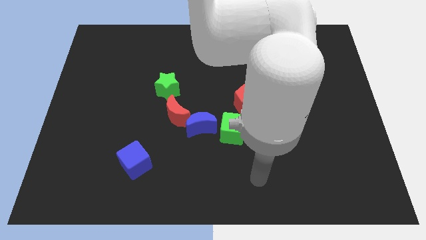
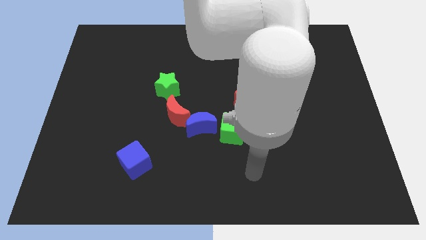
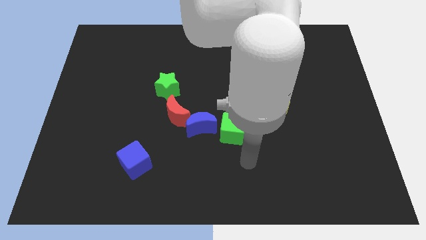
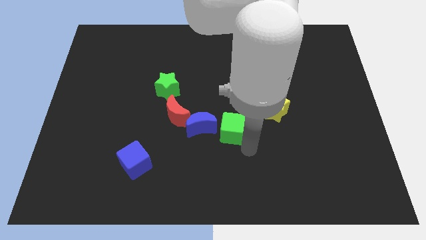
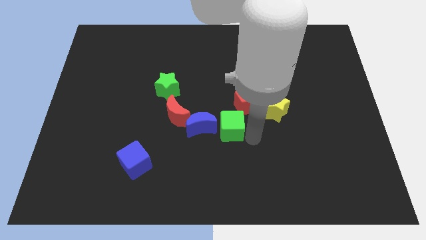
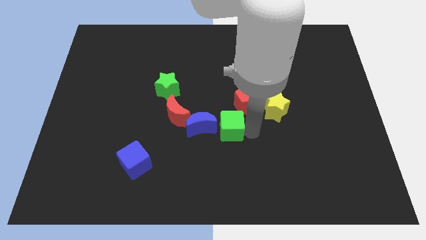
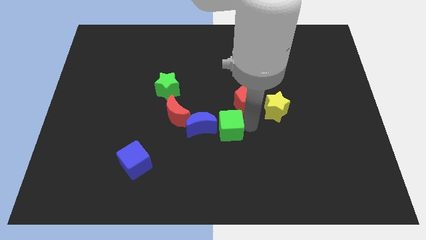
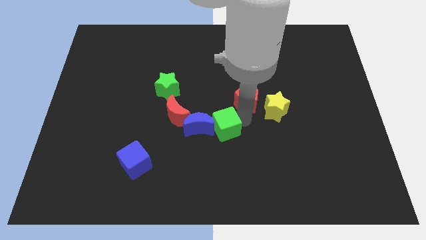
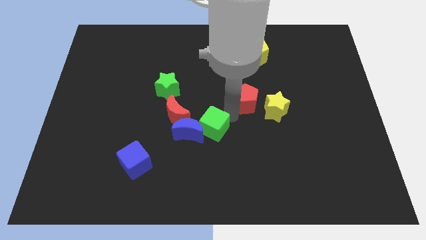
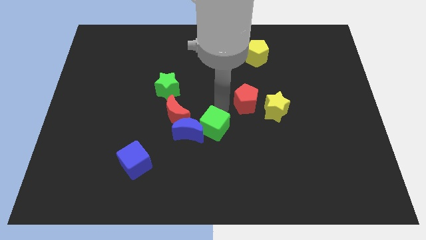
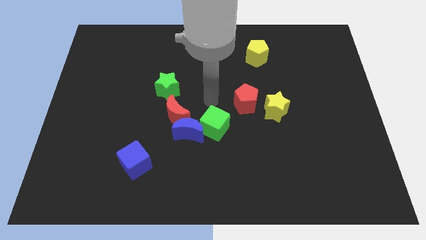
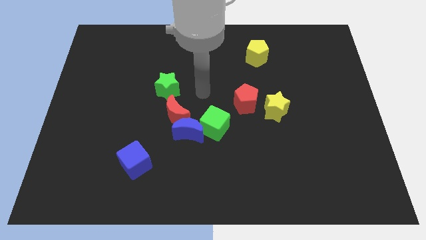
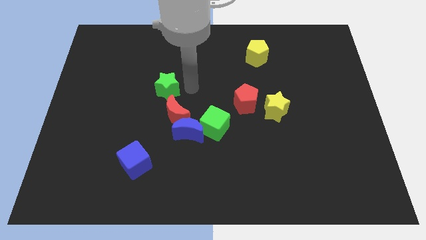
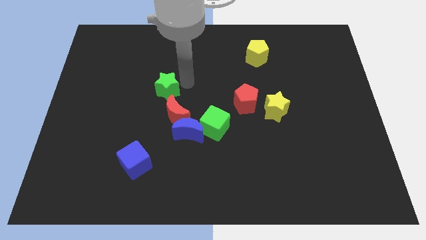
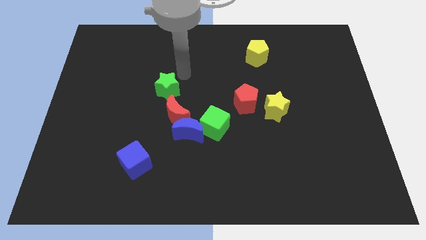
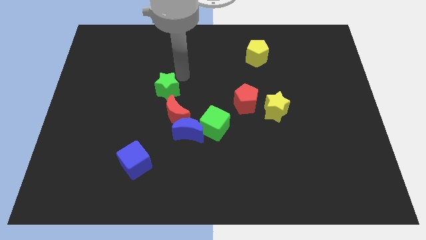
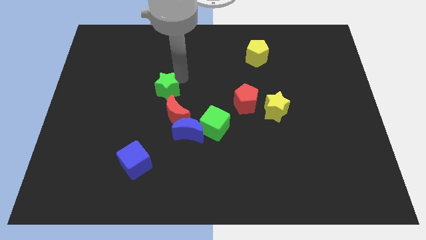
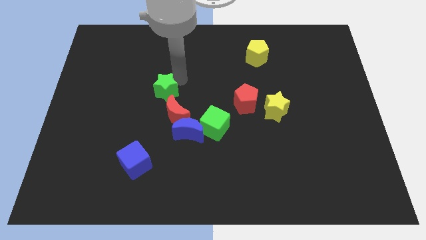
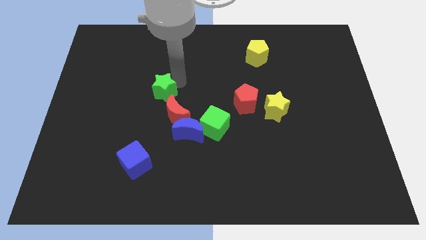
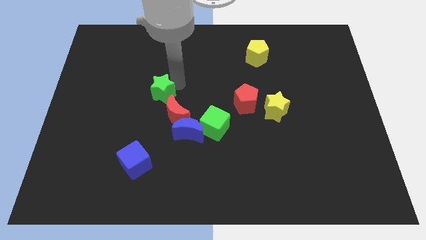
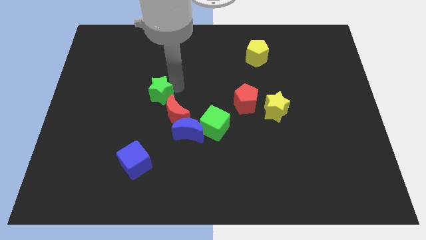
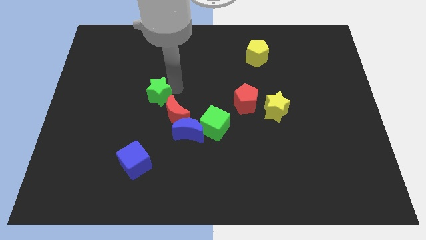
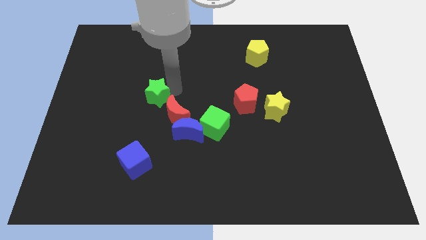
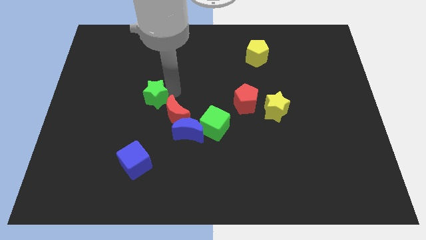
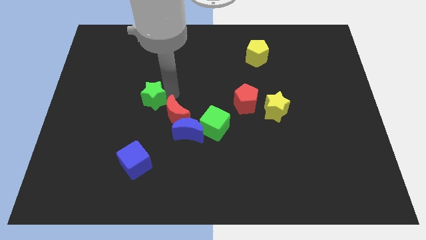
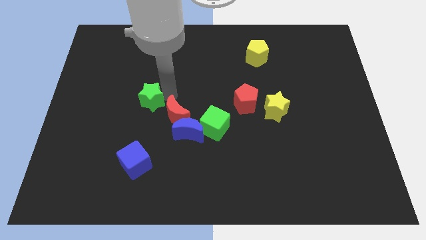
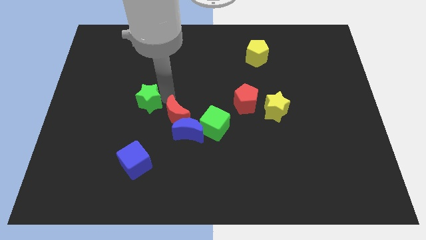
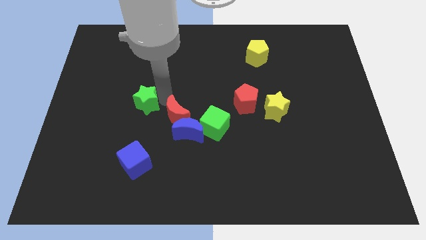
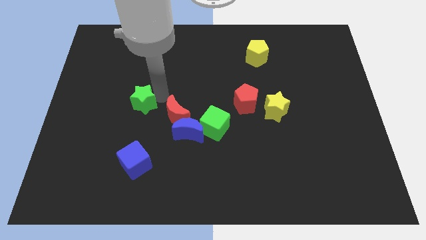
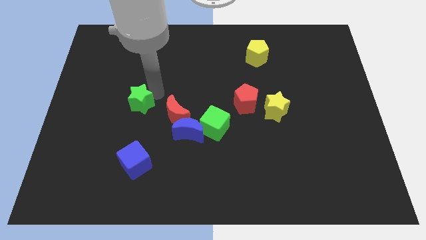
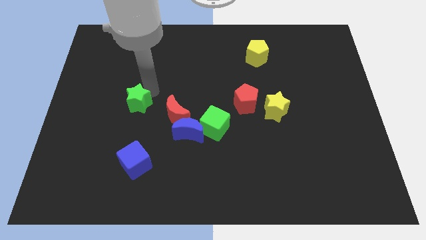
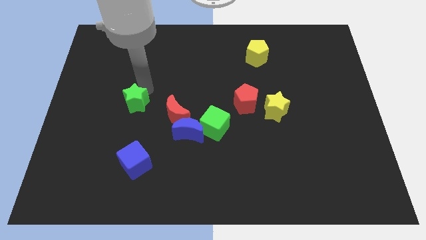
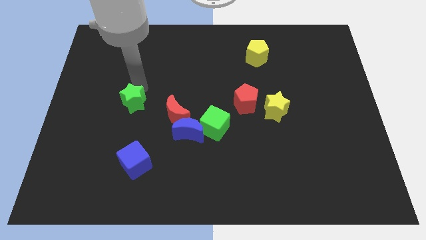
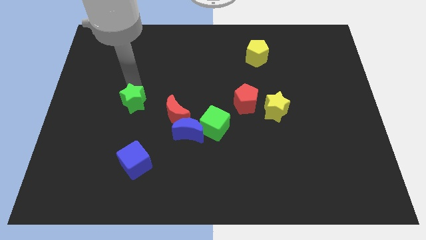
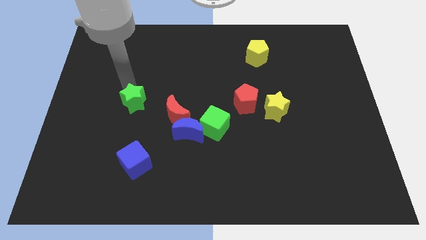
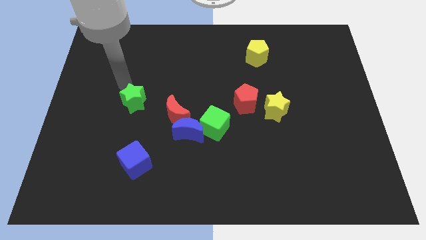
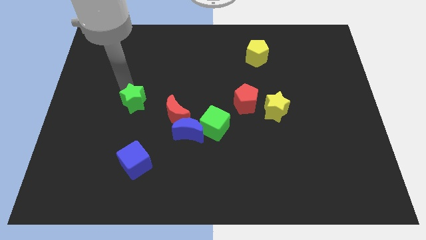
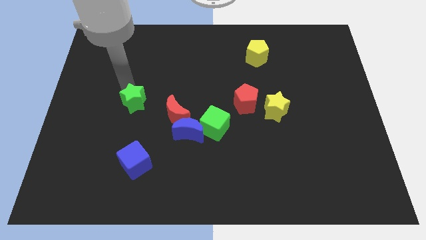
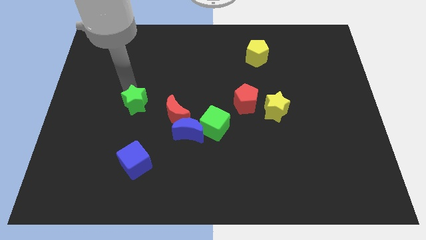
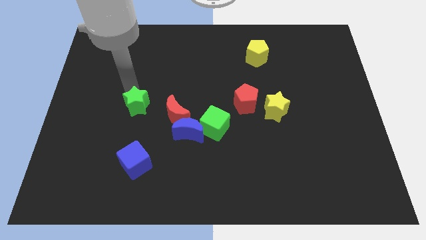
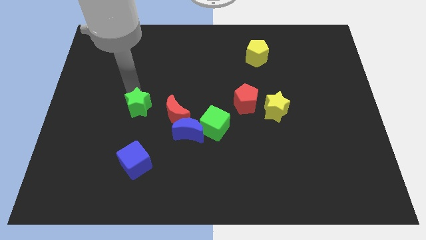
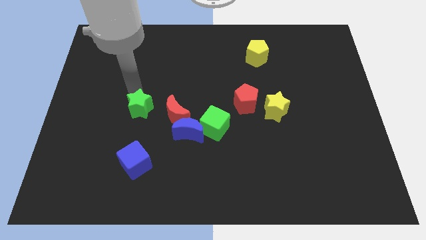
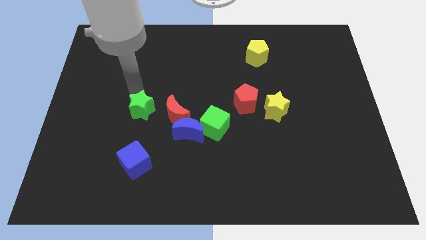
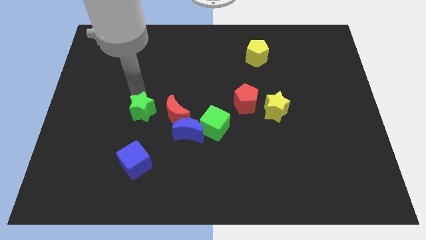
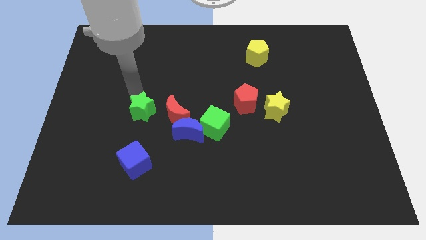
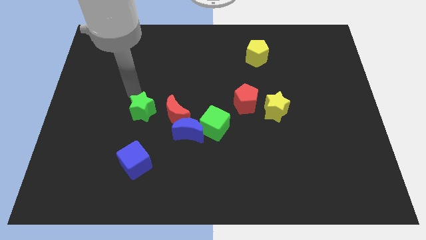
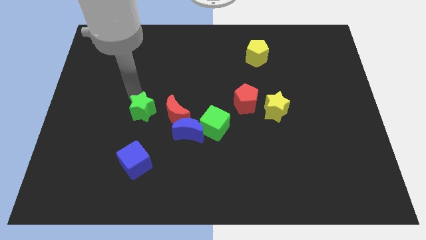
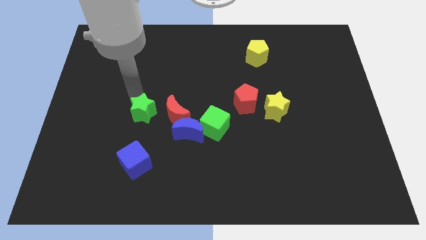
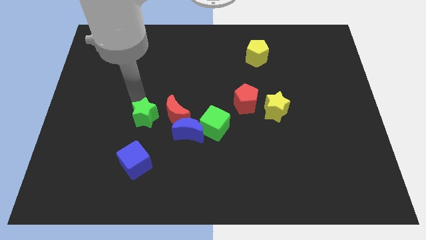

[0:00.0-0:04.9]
slightly move the green star down

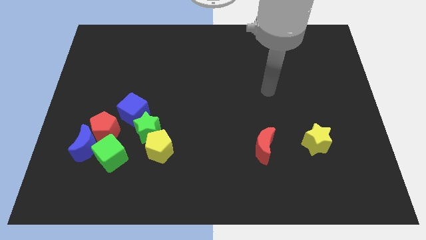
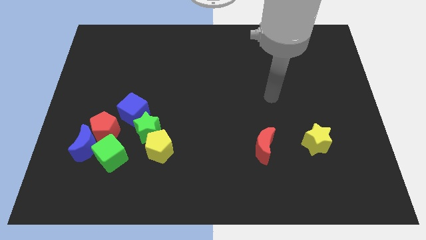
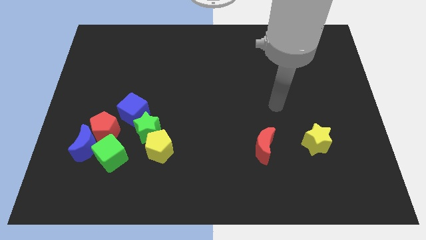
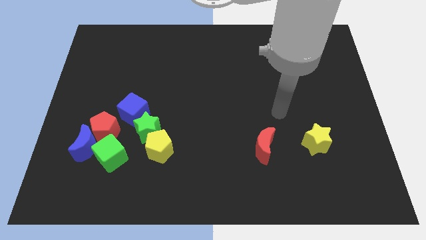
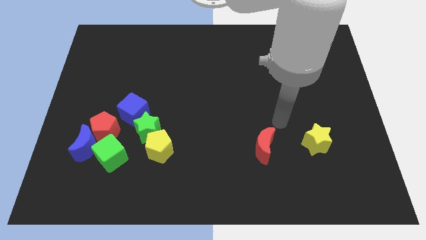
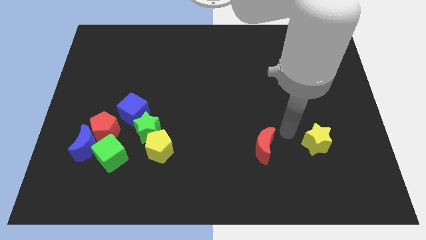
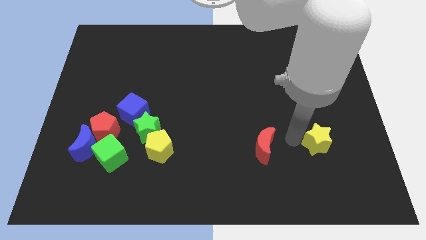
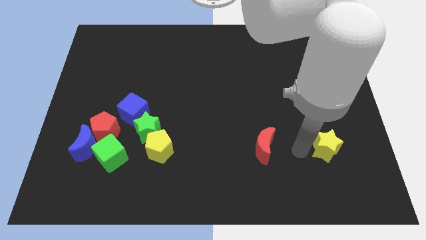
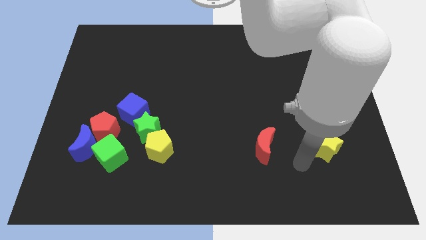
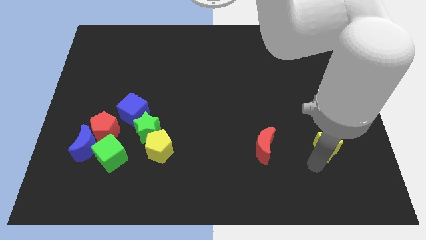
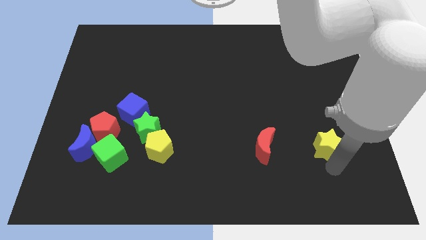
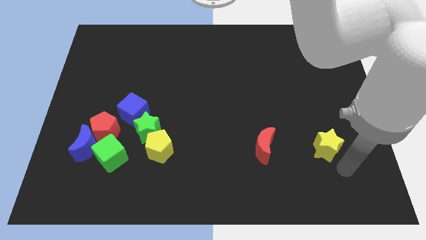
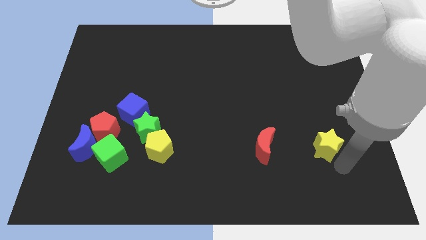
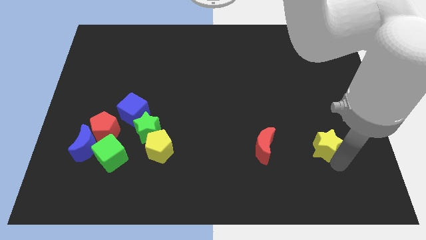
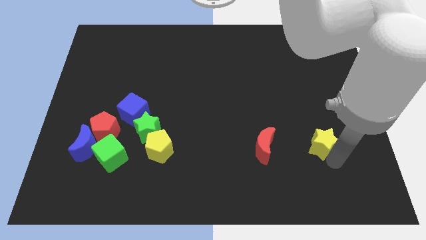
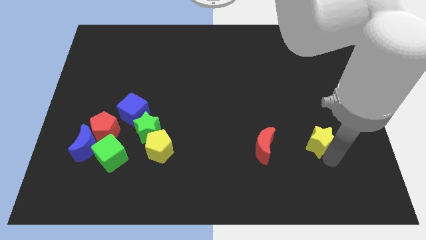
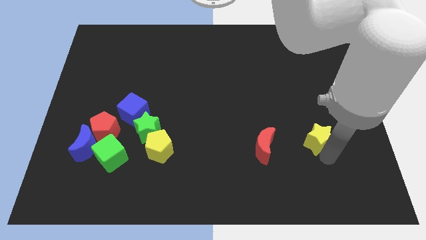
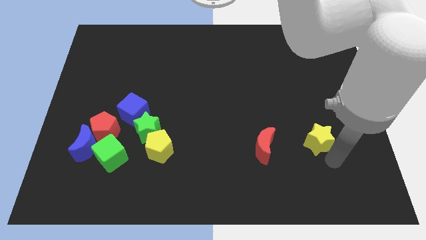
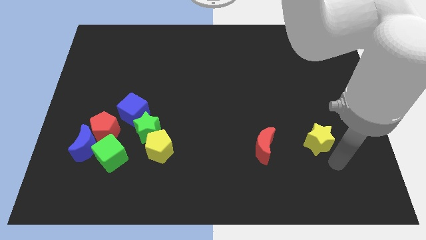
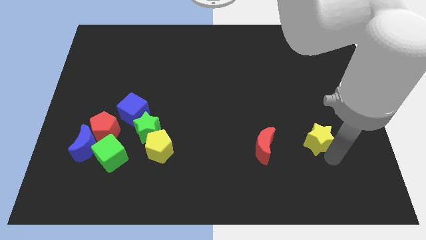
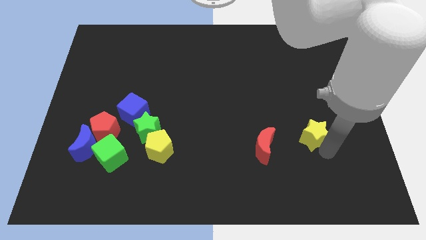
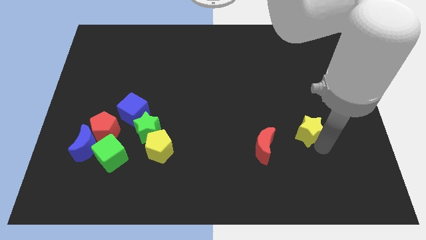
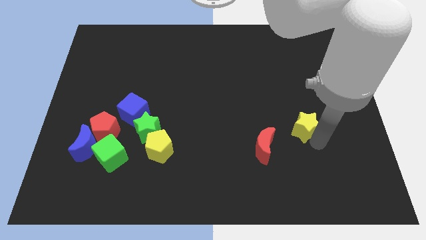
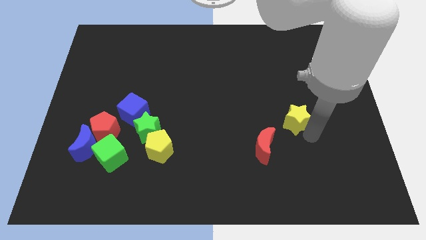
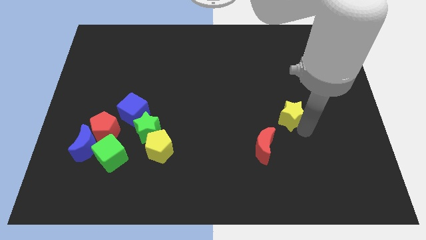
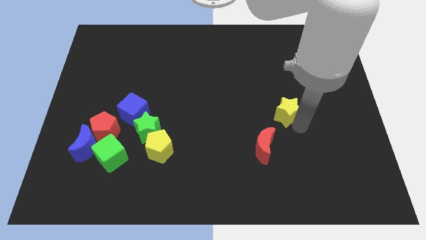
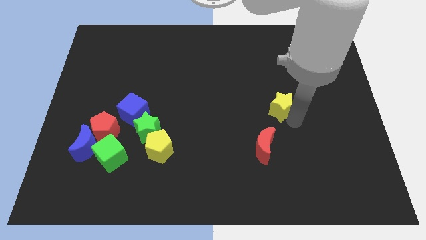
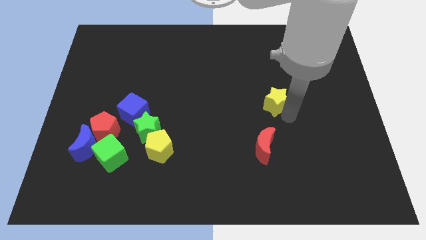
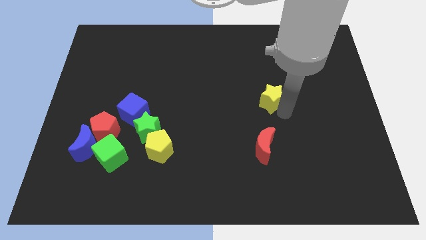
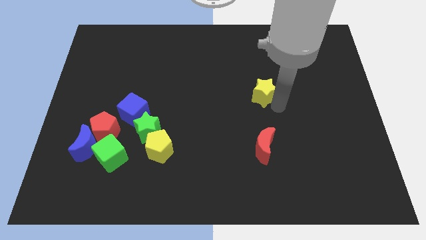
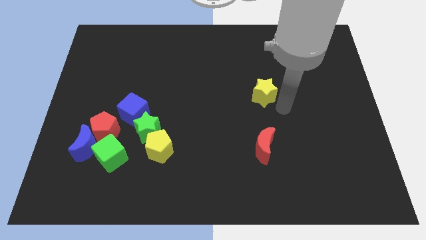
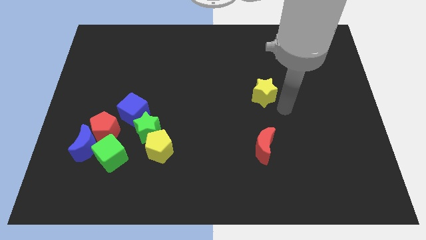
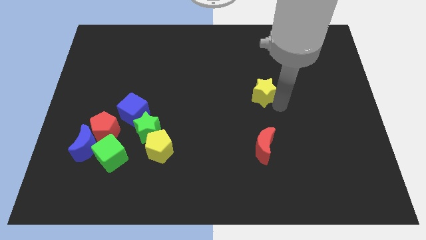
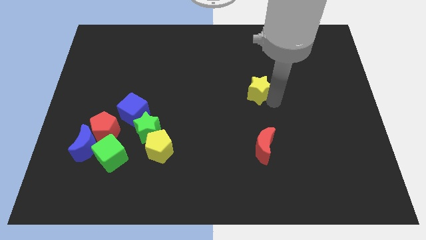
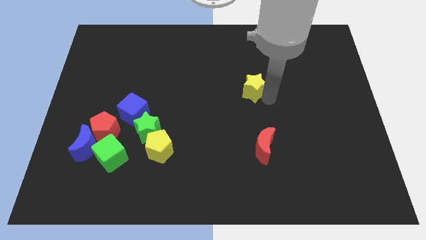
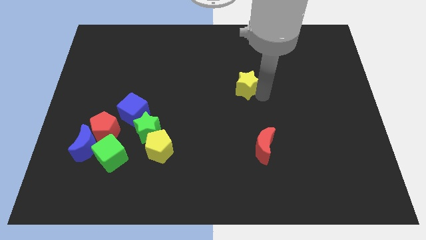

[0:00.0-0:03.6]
push the yellow star up and left
